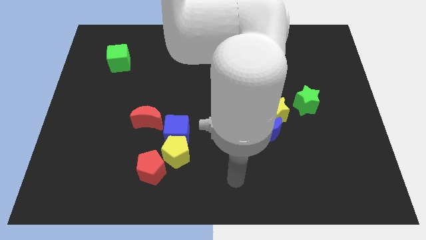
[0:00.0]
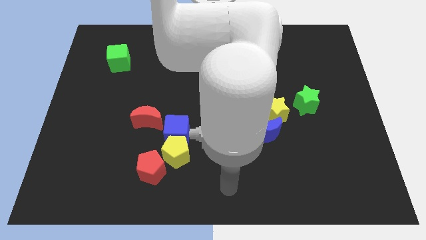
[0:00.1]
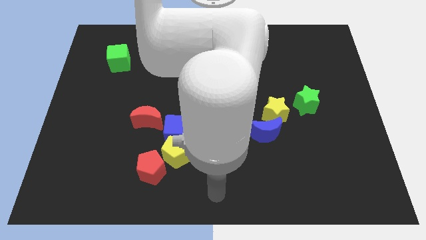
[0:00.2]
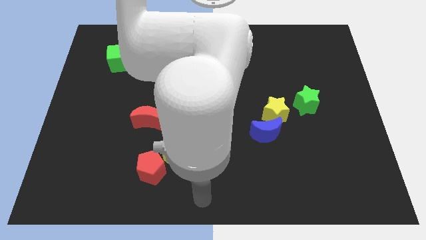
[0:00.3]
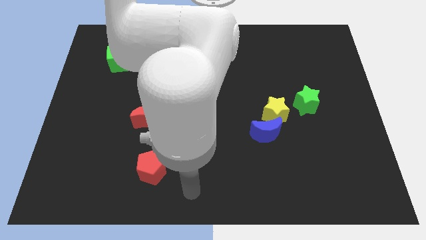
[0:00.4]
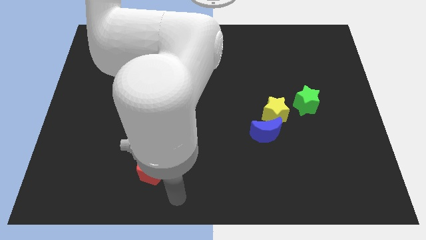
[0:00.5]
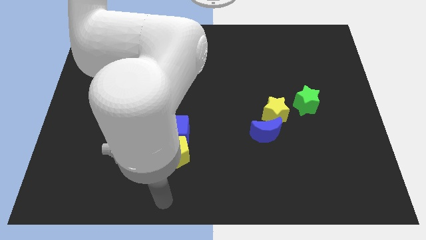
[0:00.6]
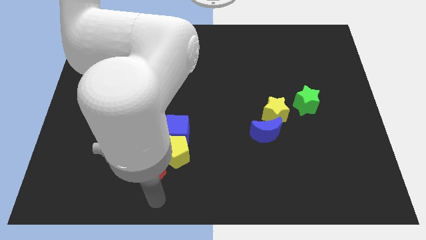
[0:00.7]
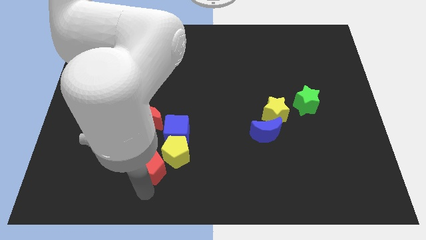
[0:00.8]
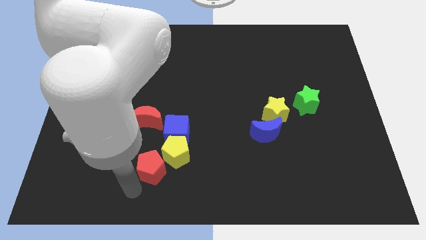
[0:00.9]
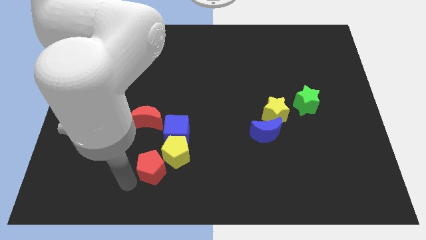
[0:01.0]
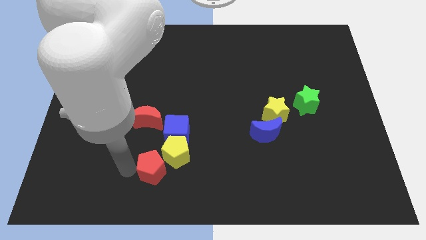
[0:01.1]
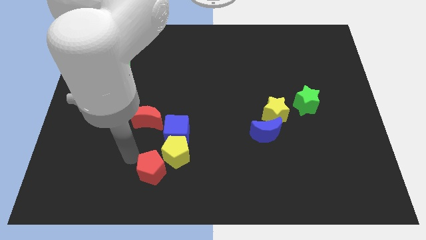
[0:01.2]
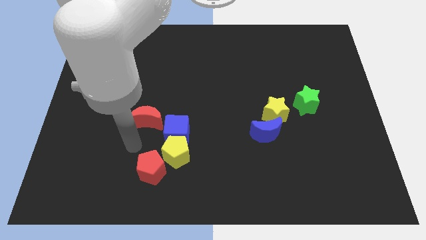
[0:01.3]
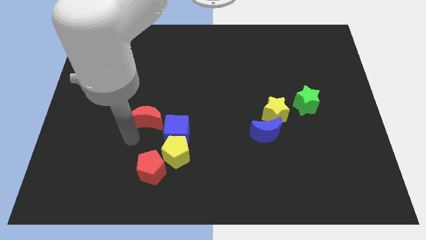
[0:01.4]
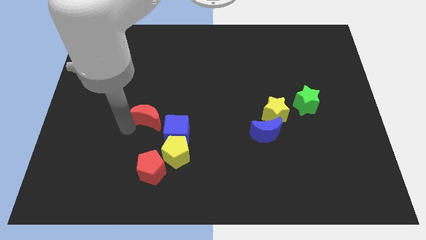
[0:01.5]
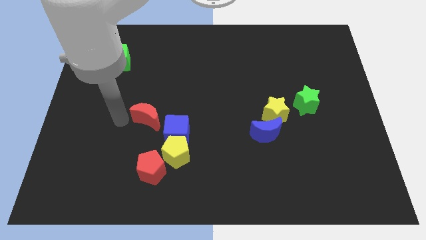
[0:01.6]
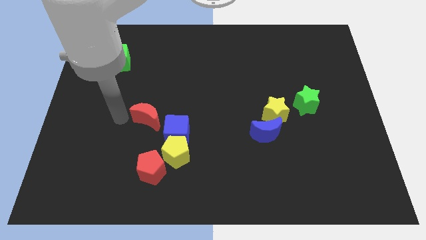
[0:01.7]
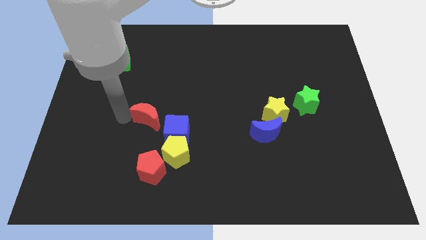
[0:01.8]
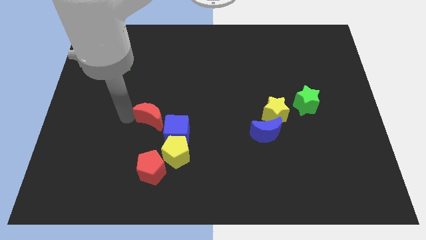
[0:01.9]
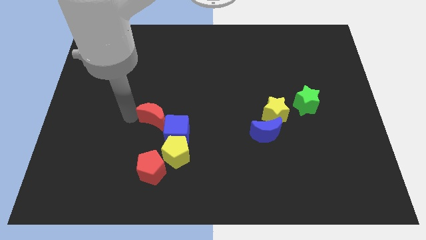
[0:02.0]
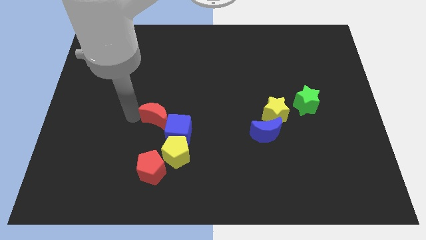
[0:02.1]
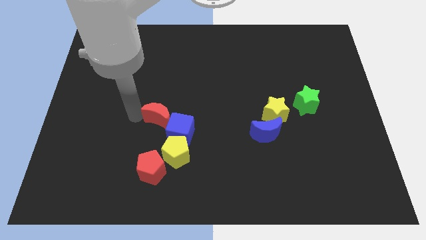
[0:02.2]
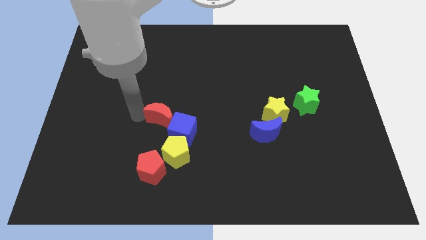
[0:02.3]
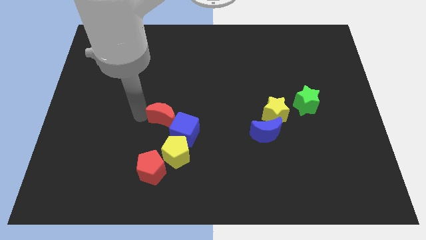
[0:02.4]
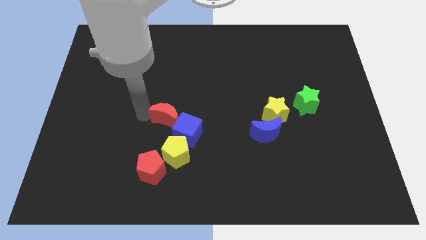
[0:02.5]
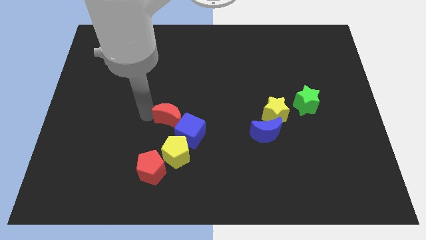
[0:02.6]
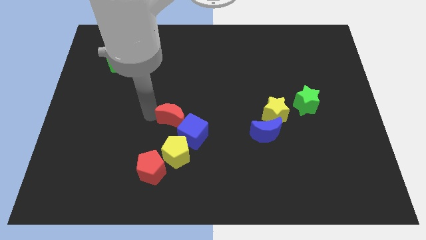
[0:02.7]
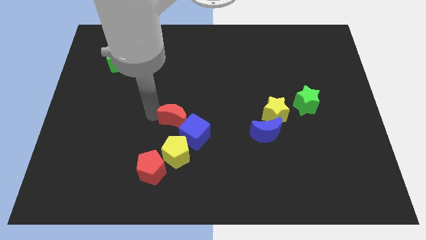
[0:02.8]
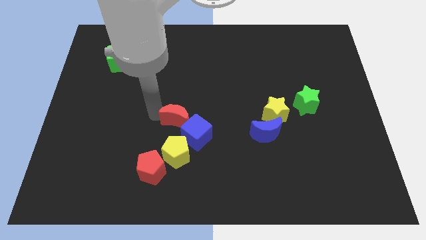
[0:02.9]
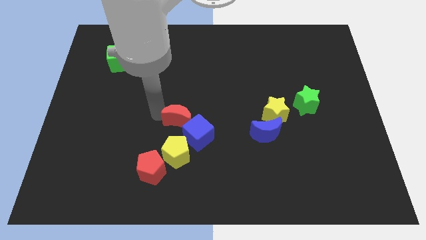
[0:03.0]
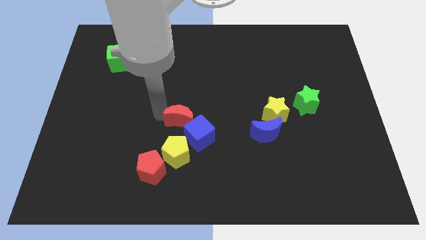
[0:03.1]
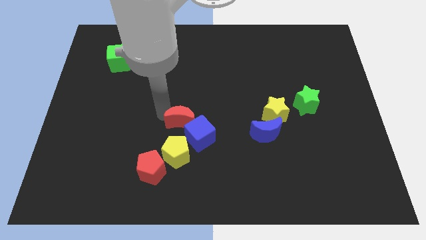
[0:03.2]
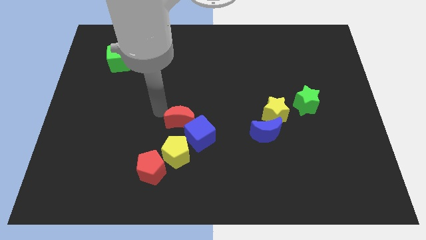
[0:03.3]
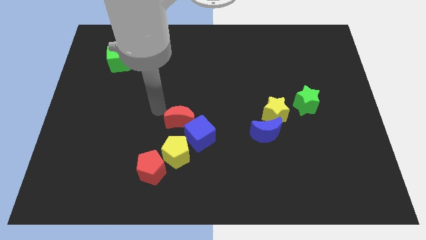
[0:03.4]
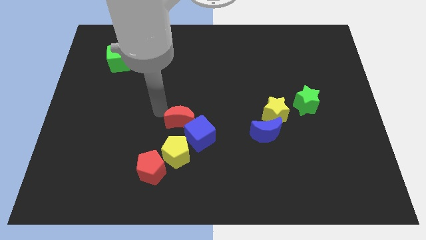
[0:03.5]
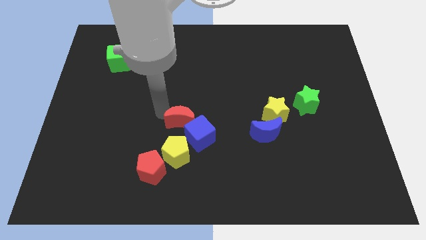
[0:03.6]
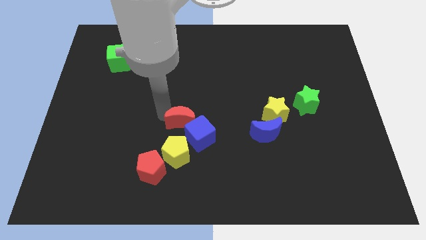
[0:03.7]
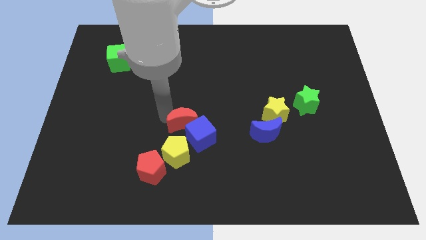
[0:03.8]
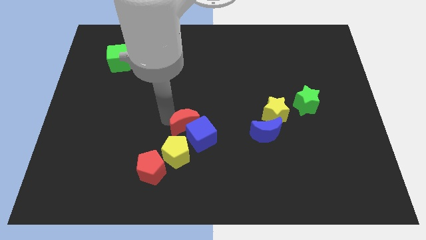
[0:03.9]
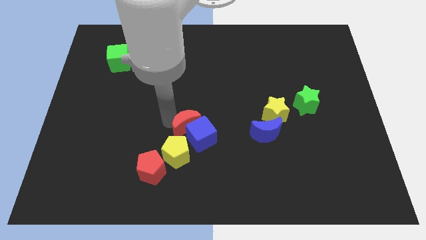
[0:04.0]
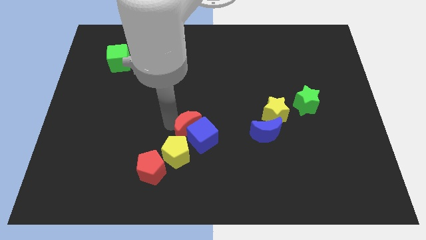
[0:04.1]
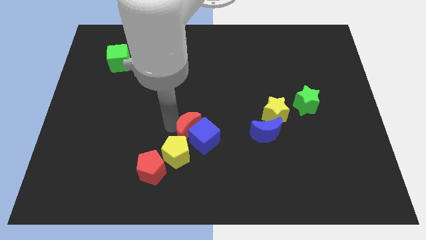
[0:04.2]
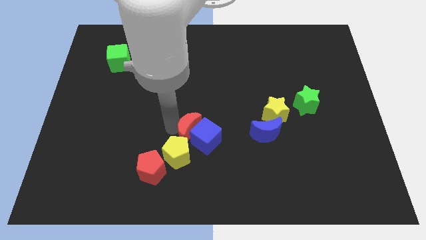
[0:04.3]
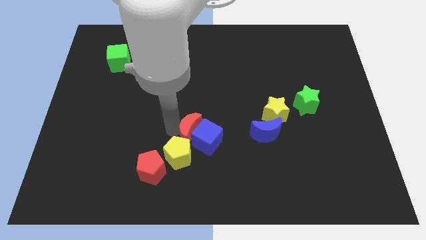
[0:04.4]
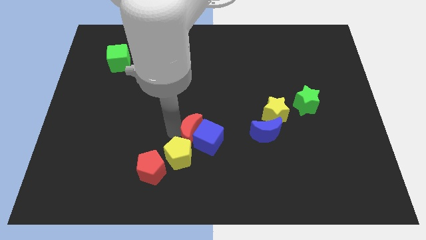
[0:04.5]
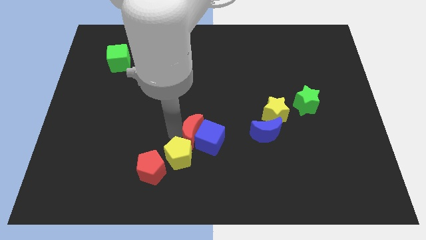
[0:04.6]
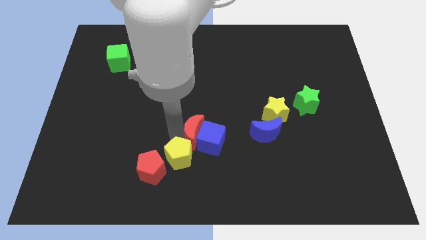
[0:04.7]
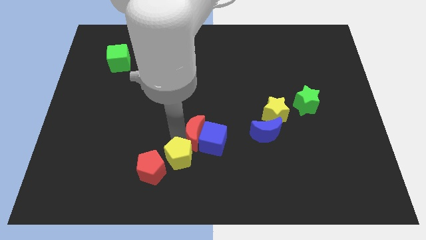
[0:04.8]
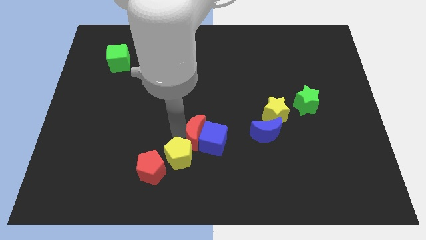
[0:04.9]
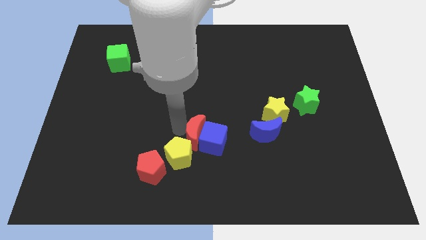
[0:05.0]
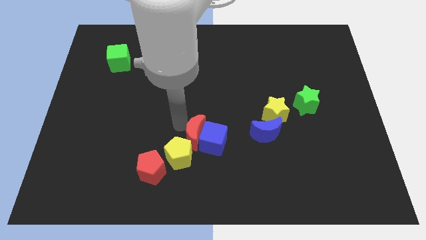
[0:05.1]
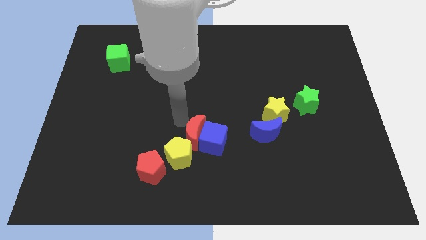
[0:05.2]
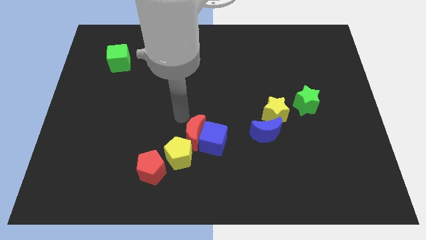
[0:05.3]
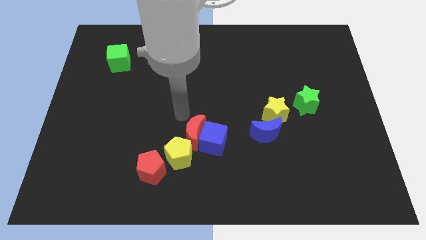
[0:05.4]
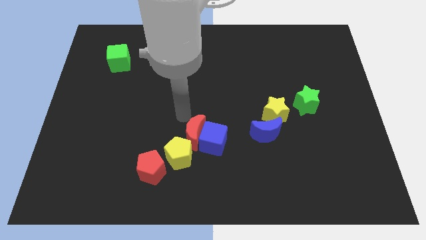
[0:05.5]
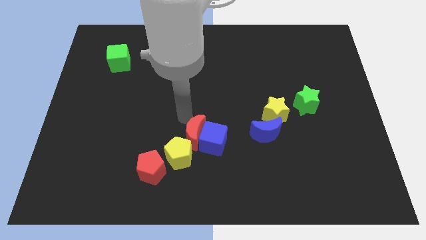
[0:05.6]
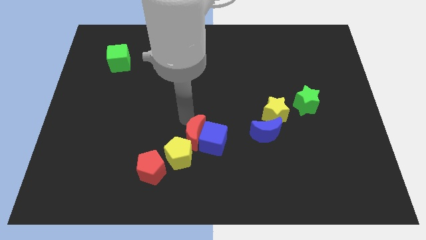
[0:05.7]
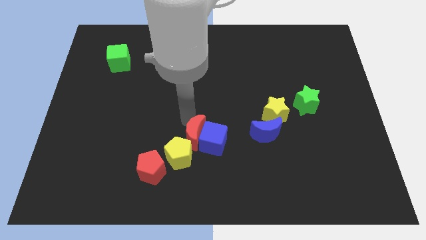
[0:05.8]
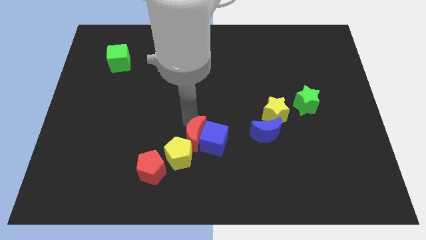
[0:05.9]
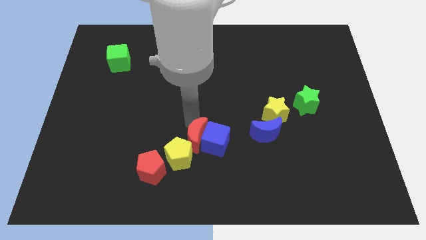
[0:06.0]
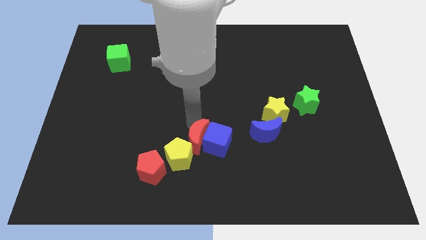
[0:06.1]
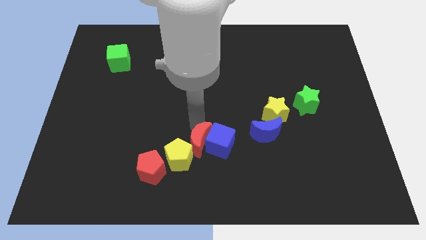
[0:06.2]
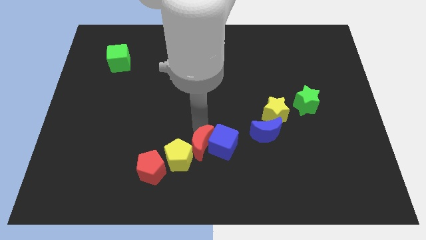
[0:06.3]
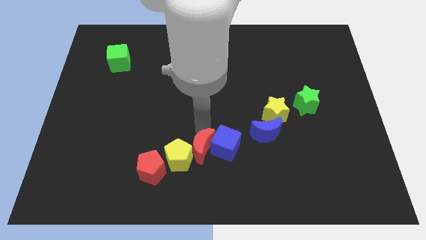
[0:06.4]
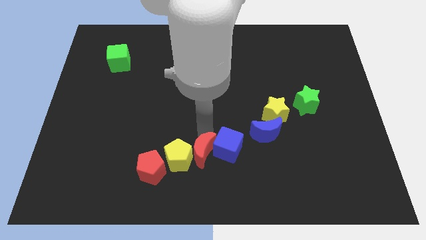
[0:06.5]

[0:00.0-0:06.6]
push the red moon to the bottom right side of the yellow pentagon

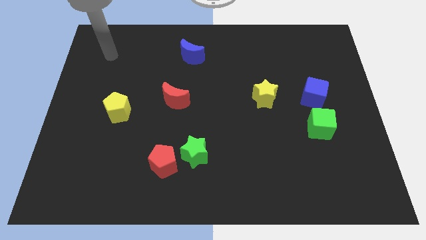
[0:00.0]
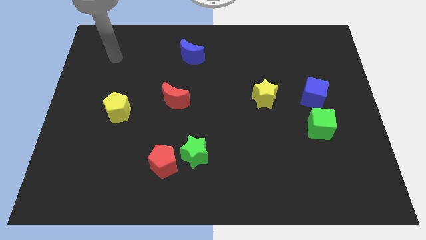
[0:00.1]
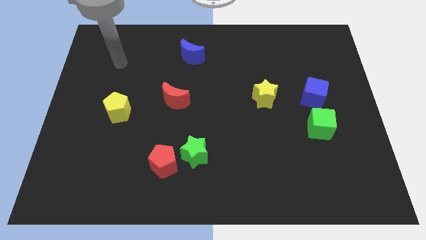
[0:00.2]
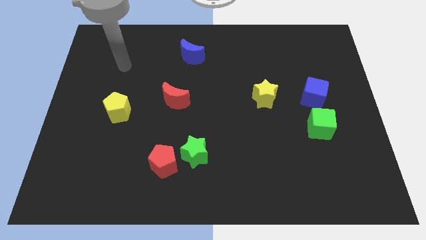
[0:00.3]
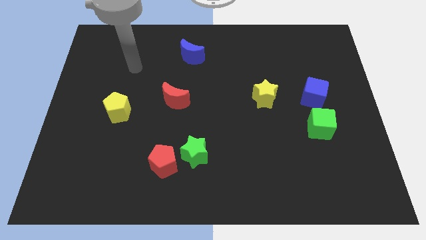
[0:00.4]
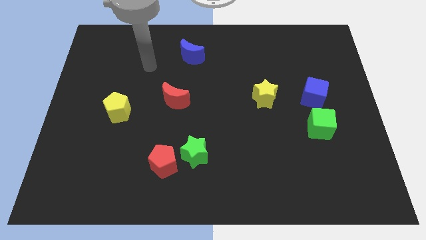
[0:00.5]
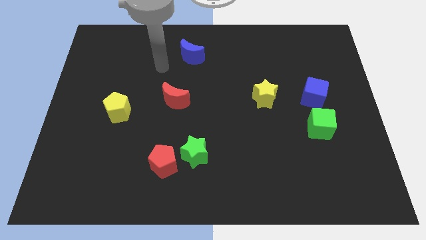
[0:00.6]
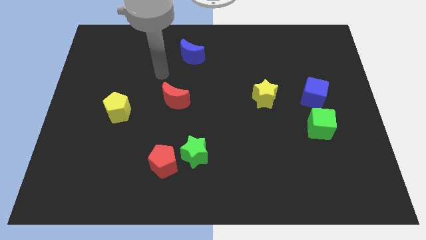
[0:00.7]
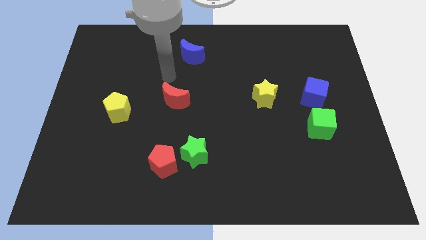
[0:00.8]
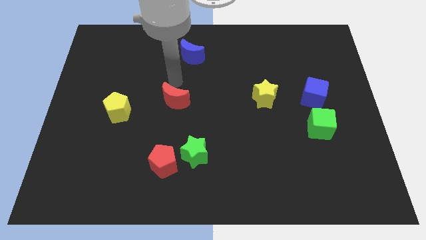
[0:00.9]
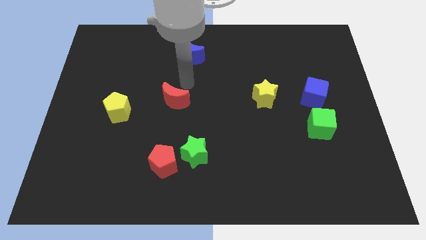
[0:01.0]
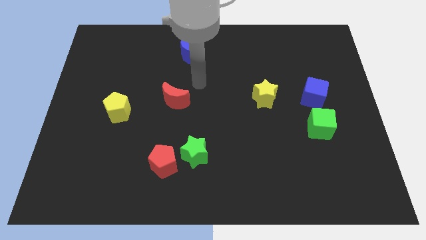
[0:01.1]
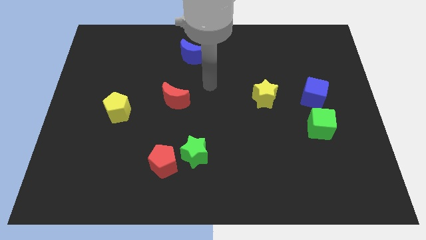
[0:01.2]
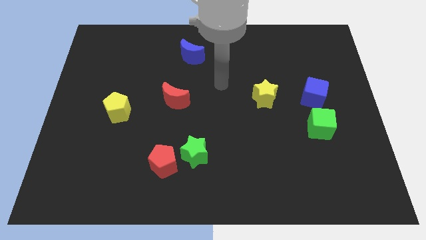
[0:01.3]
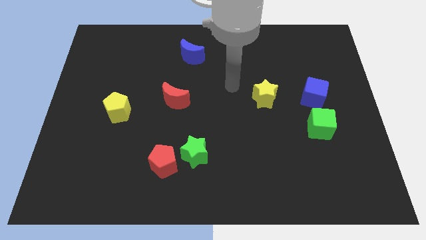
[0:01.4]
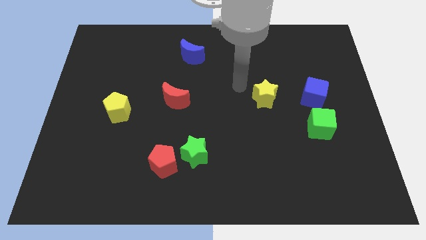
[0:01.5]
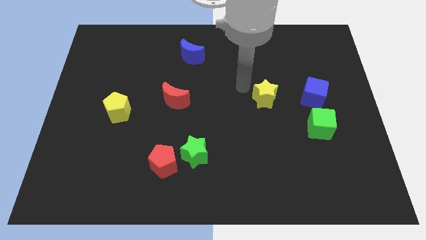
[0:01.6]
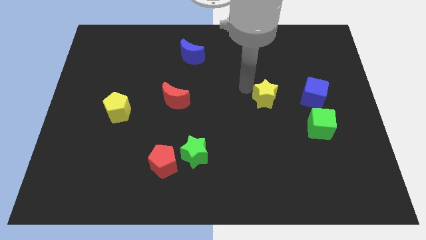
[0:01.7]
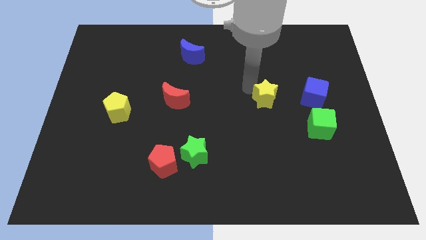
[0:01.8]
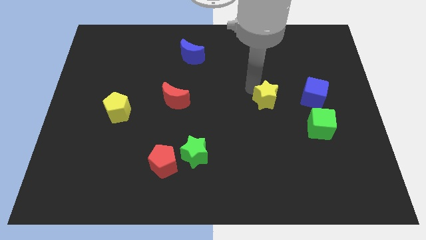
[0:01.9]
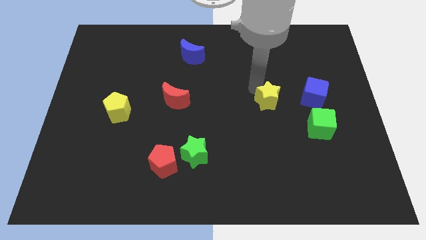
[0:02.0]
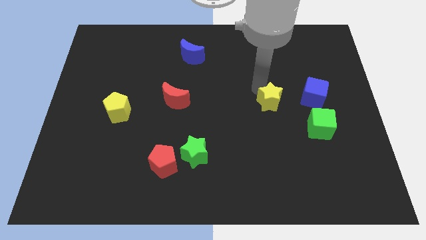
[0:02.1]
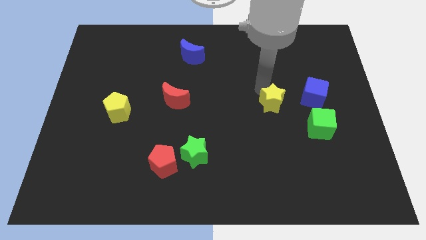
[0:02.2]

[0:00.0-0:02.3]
put the yellow star to the top left of the green cube
